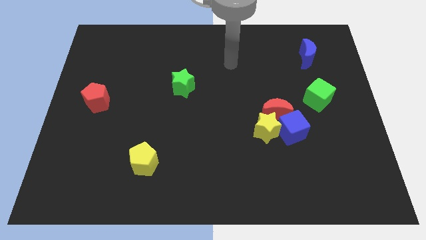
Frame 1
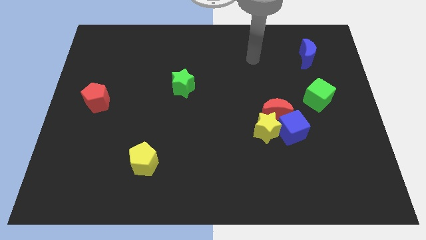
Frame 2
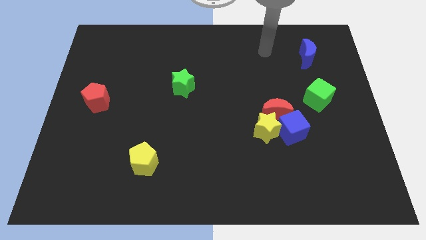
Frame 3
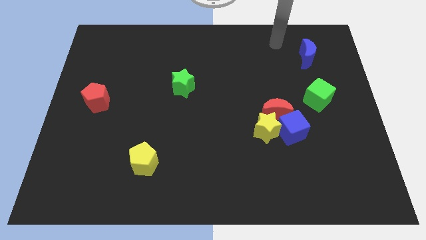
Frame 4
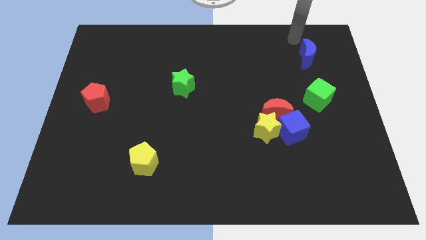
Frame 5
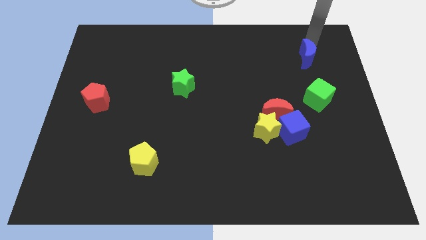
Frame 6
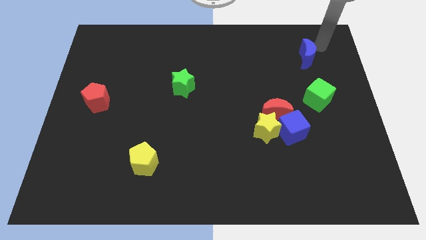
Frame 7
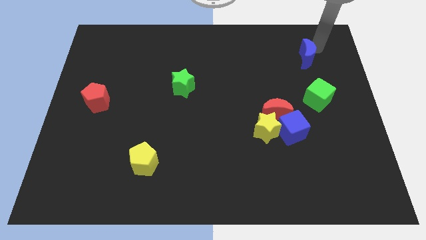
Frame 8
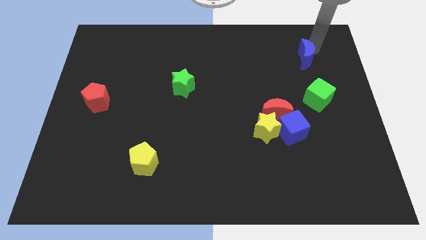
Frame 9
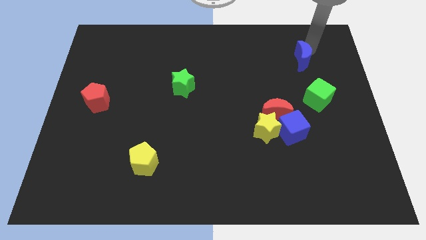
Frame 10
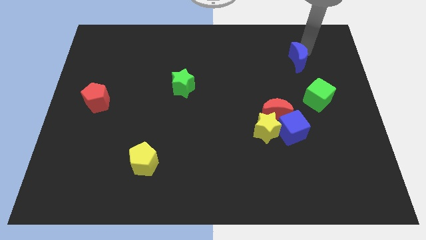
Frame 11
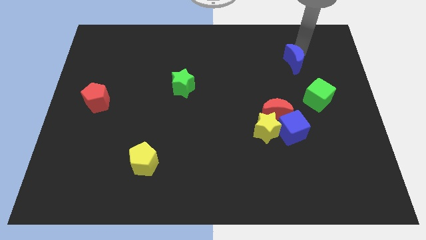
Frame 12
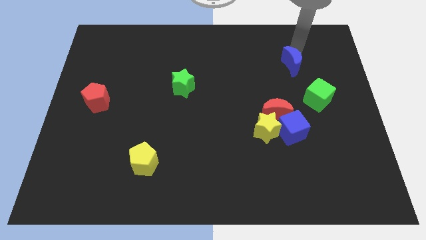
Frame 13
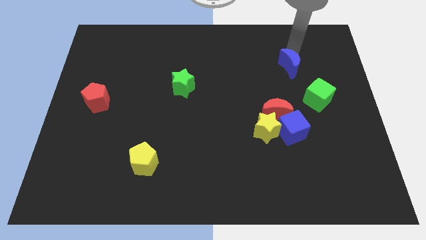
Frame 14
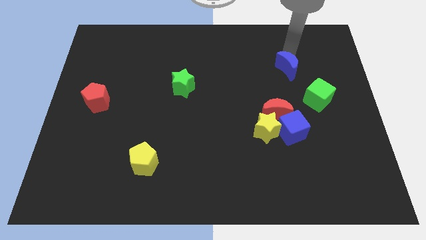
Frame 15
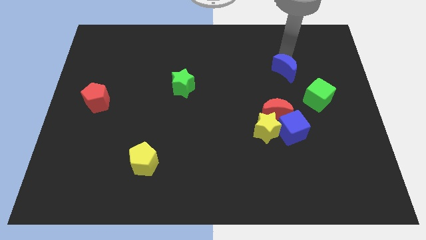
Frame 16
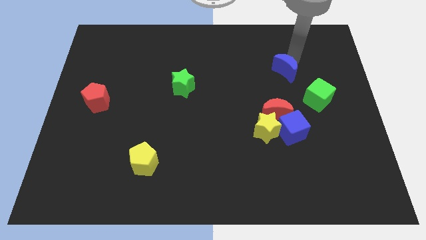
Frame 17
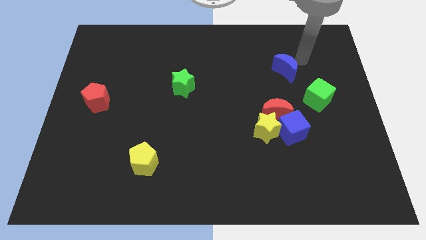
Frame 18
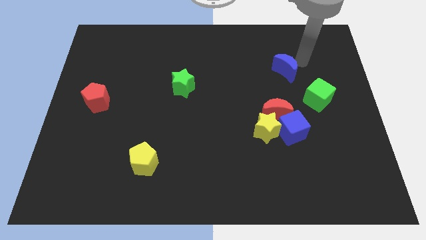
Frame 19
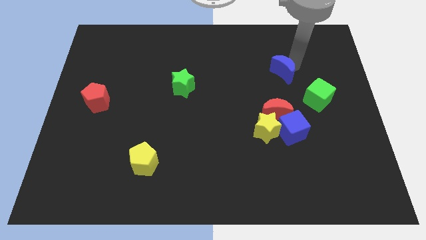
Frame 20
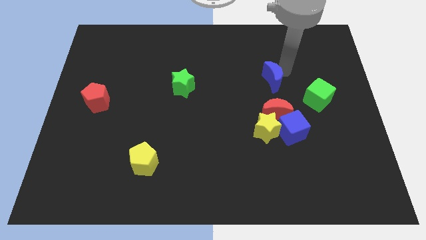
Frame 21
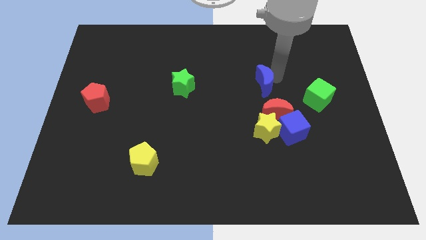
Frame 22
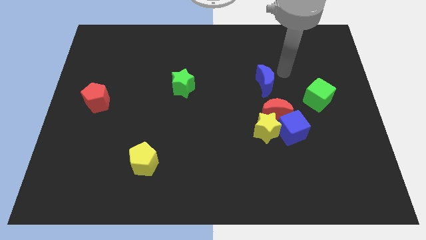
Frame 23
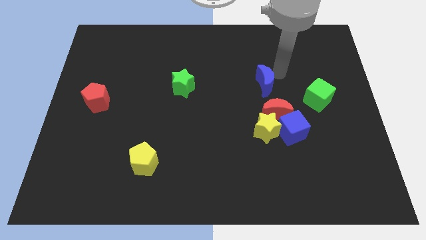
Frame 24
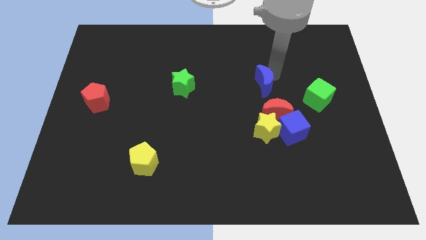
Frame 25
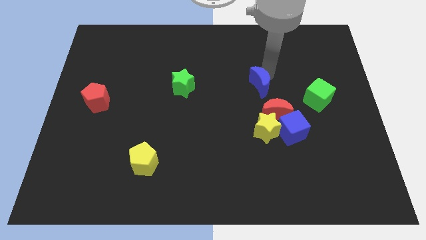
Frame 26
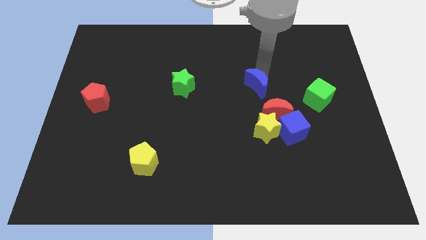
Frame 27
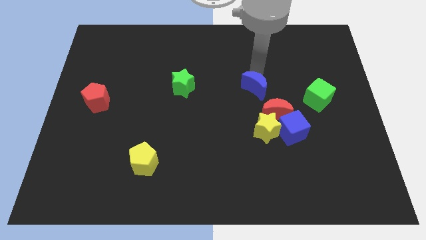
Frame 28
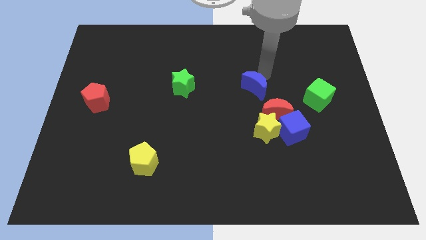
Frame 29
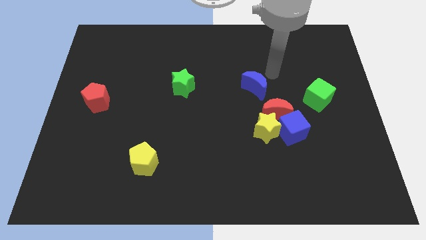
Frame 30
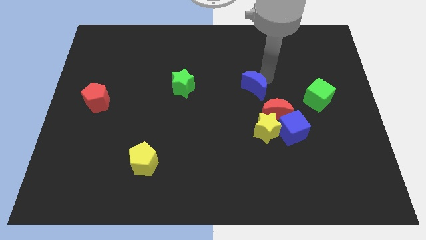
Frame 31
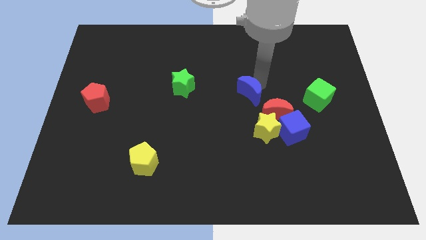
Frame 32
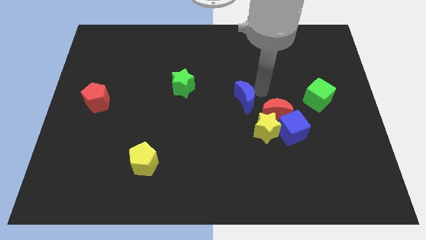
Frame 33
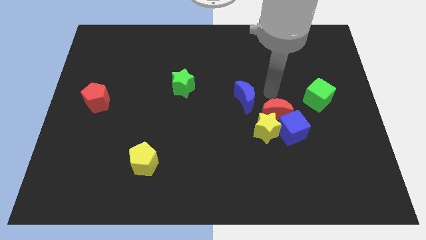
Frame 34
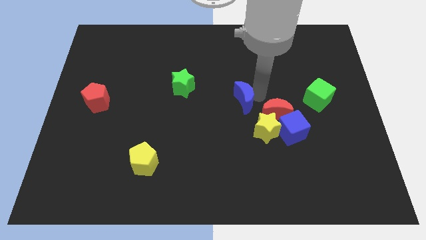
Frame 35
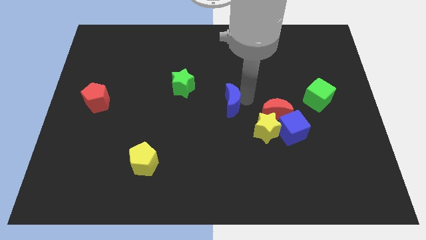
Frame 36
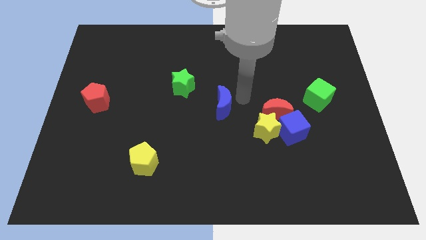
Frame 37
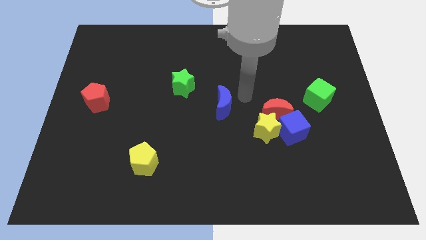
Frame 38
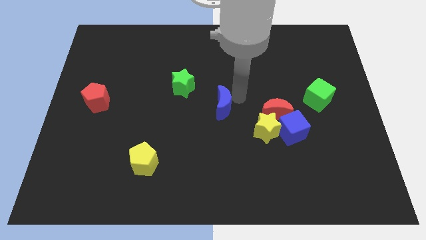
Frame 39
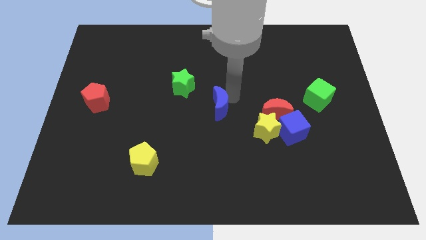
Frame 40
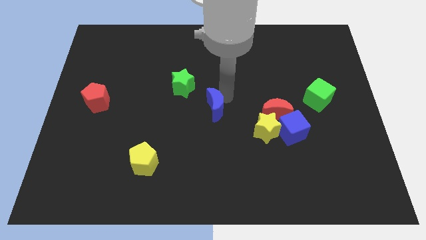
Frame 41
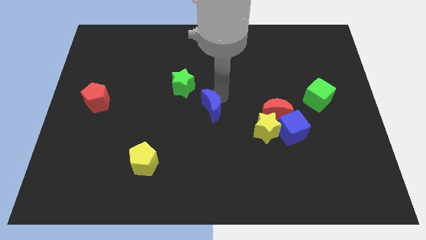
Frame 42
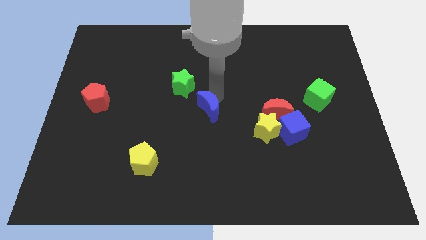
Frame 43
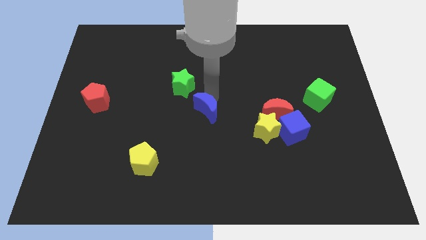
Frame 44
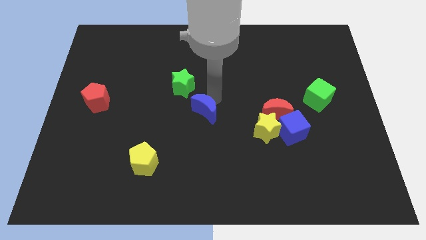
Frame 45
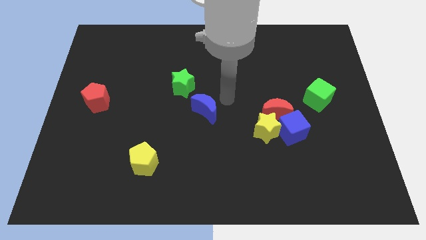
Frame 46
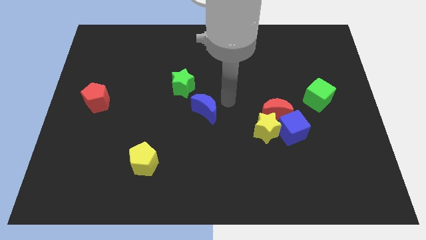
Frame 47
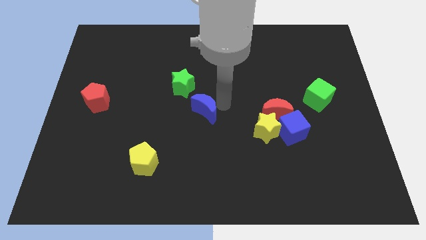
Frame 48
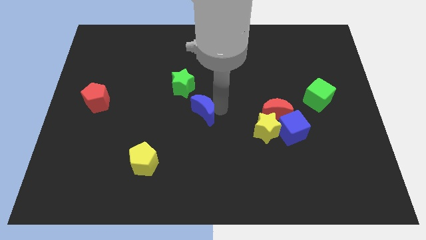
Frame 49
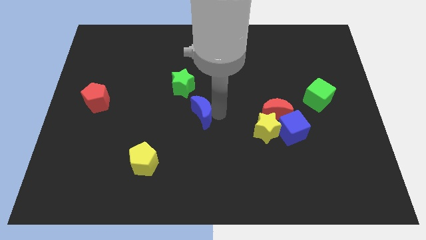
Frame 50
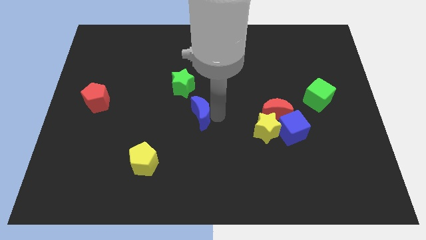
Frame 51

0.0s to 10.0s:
move the blue moon below the green star

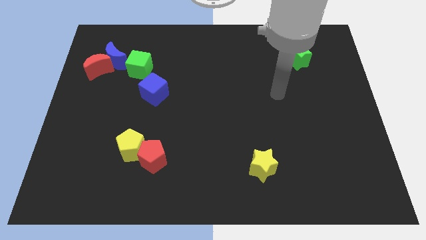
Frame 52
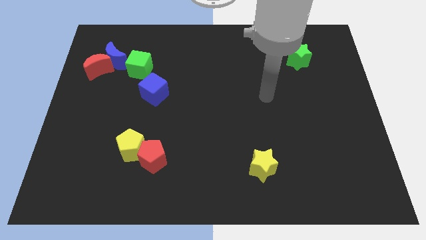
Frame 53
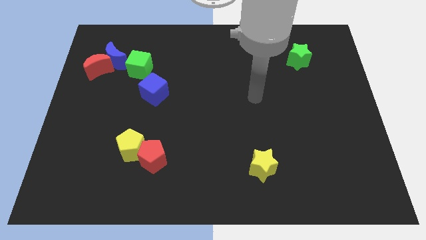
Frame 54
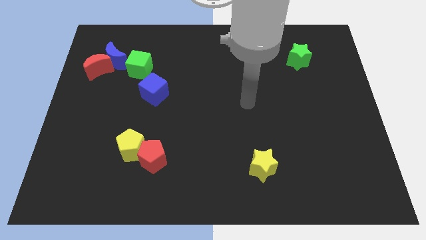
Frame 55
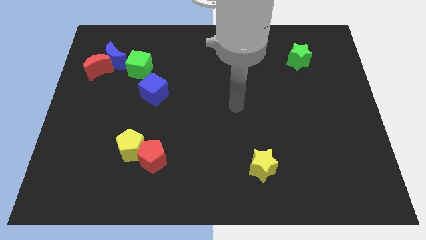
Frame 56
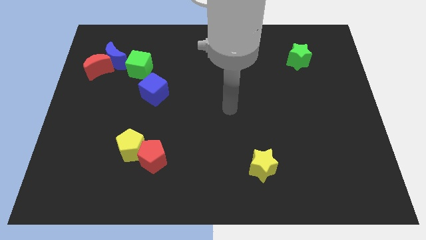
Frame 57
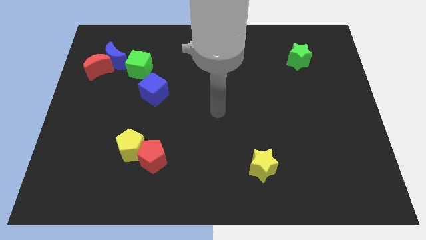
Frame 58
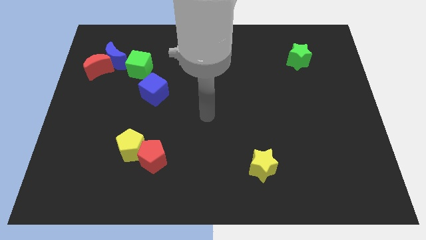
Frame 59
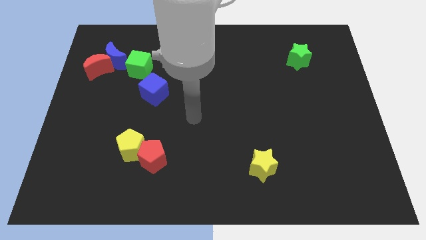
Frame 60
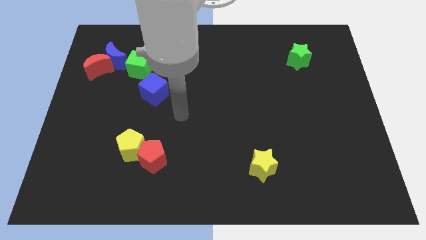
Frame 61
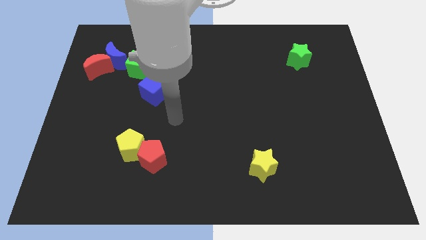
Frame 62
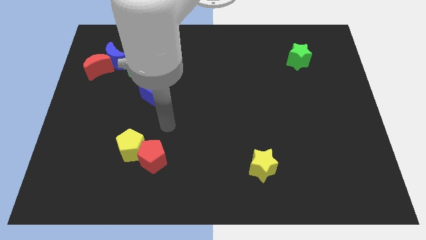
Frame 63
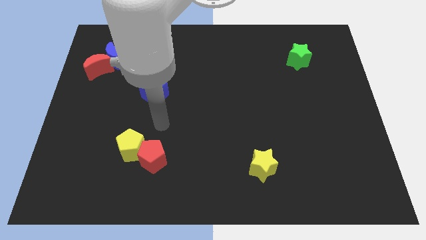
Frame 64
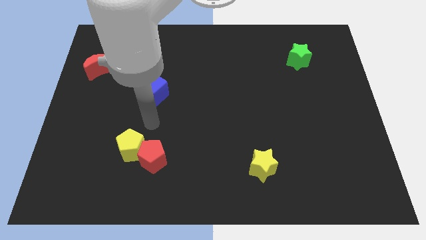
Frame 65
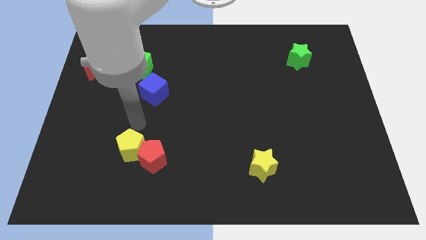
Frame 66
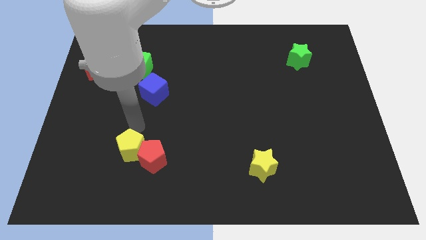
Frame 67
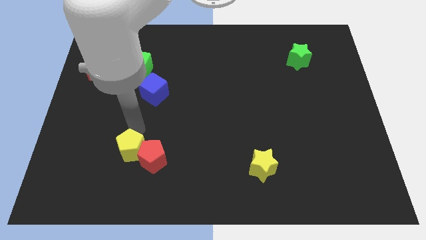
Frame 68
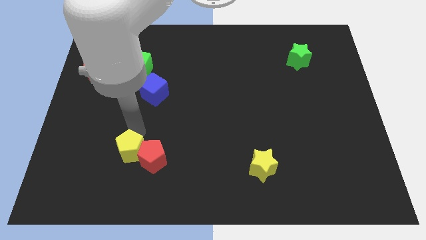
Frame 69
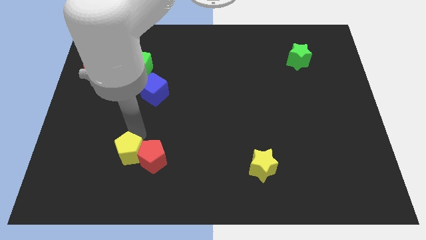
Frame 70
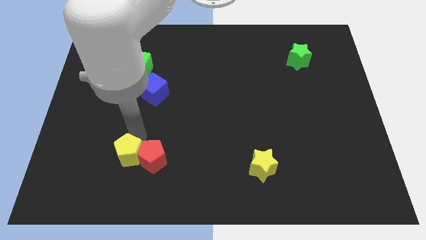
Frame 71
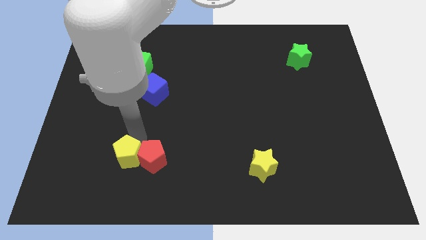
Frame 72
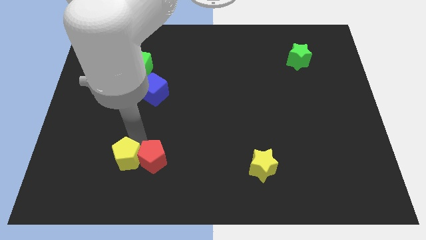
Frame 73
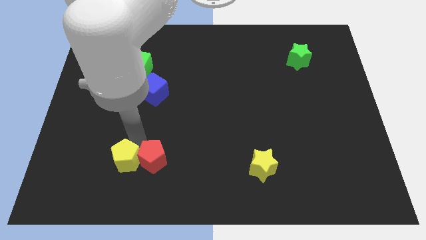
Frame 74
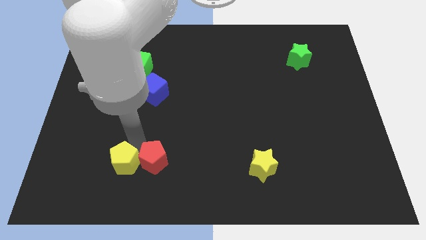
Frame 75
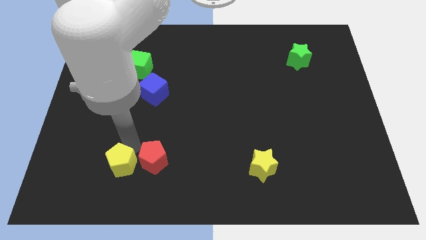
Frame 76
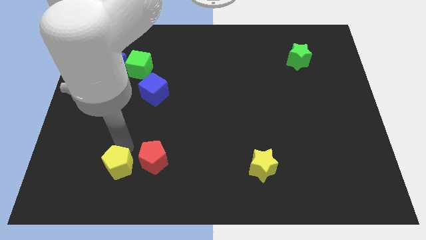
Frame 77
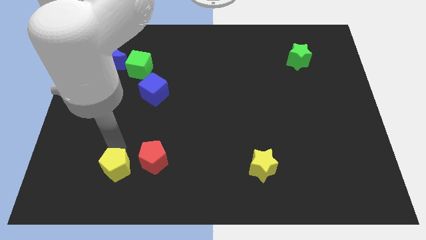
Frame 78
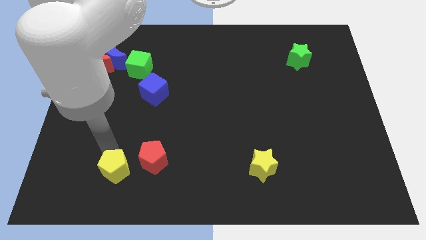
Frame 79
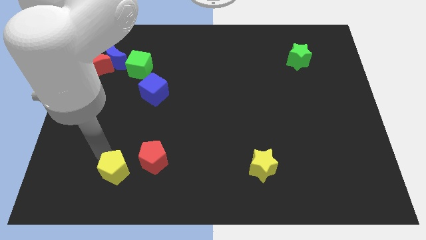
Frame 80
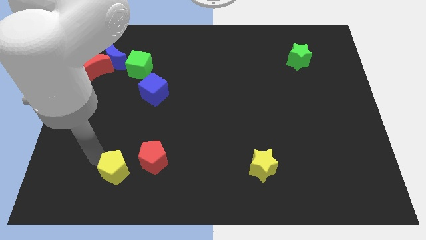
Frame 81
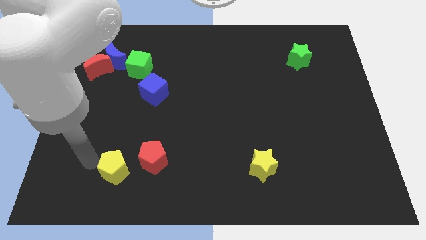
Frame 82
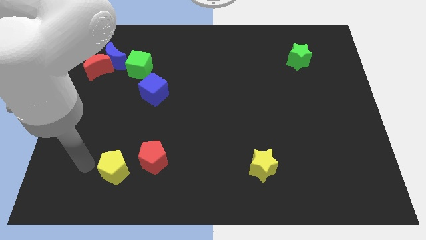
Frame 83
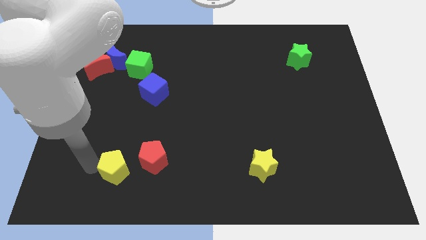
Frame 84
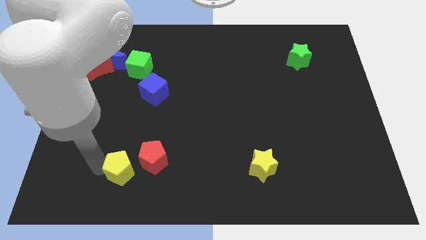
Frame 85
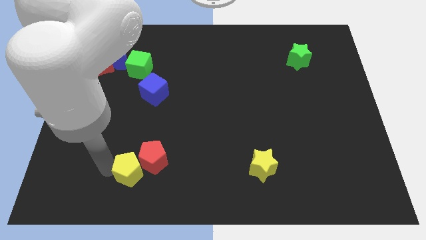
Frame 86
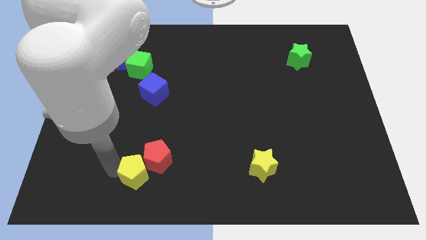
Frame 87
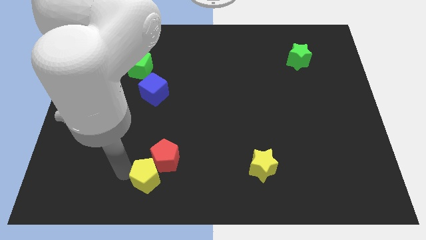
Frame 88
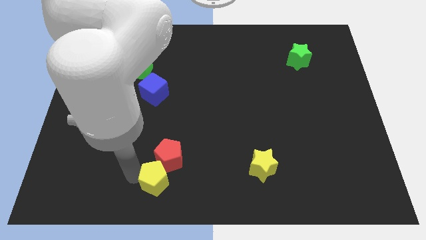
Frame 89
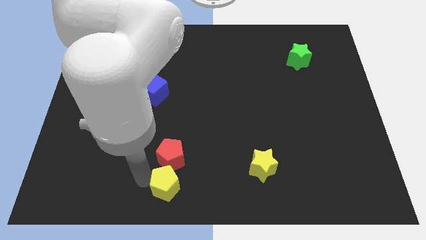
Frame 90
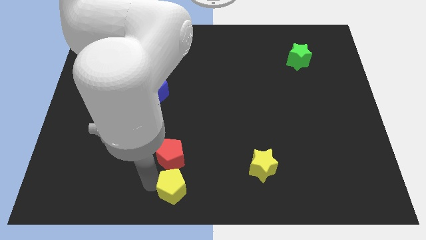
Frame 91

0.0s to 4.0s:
move the yellow pentagon diagonally down and to the right of the red pentagon
